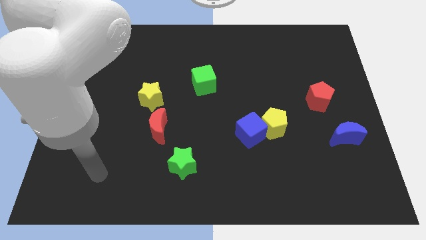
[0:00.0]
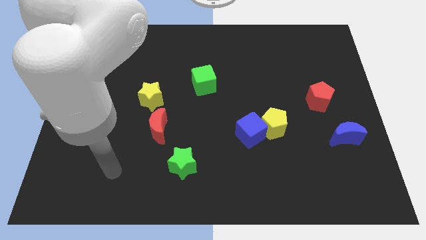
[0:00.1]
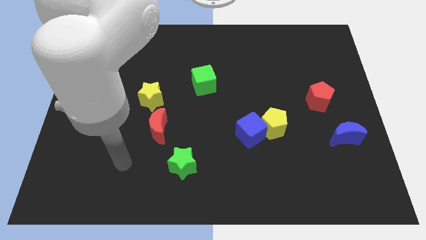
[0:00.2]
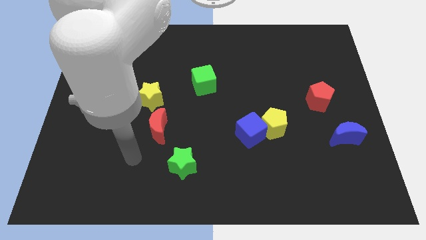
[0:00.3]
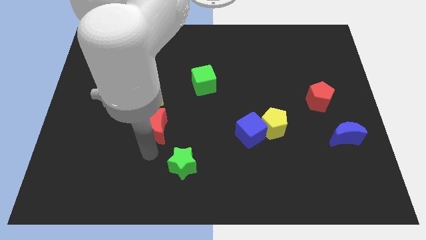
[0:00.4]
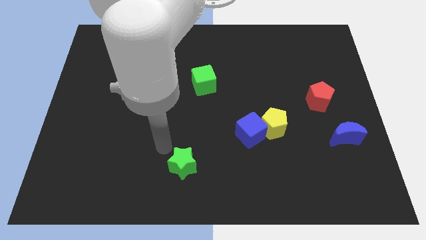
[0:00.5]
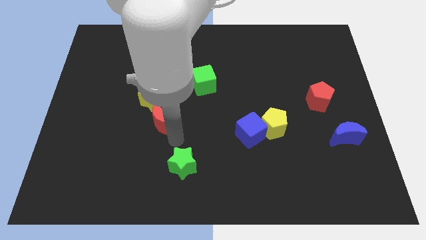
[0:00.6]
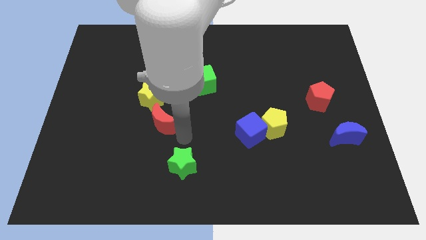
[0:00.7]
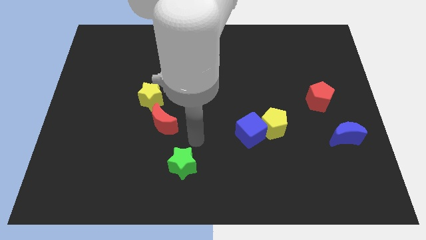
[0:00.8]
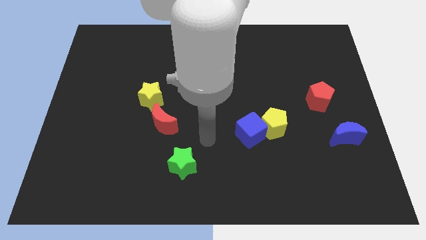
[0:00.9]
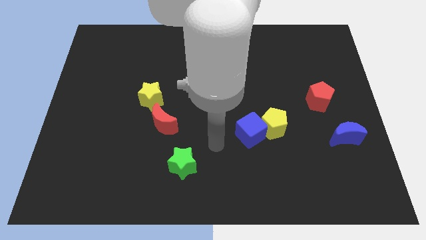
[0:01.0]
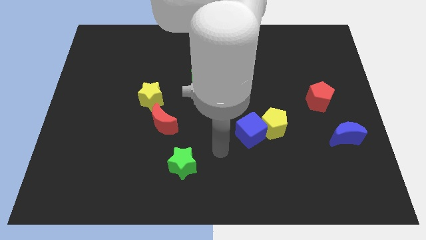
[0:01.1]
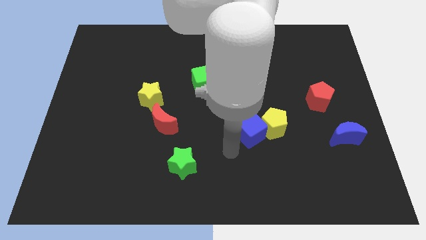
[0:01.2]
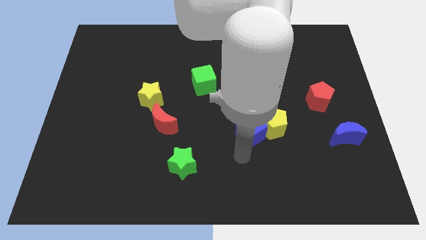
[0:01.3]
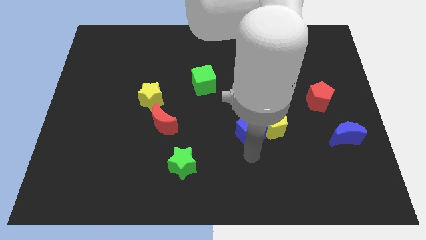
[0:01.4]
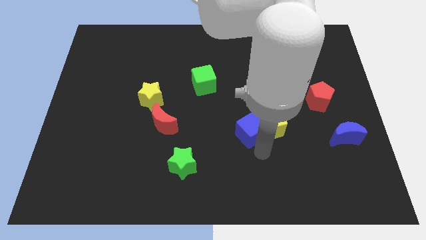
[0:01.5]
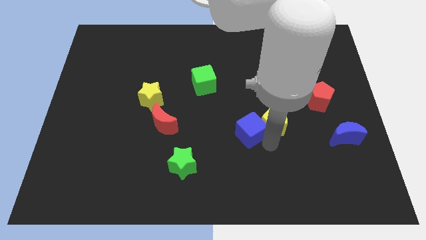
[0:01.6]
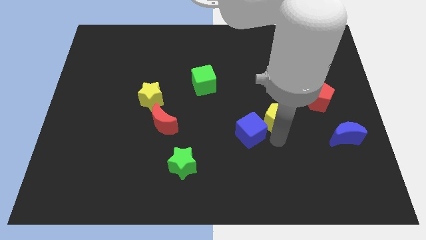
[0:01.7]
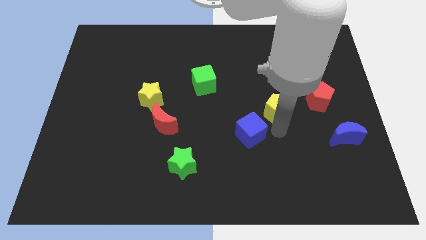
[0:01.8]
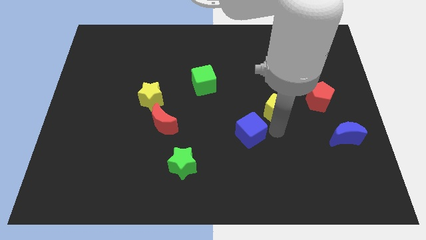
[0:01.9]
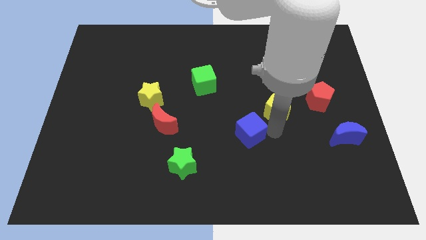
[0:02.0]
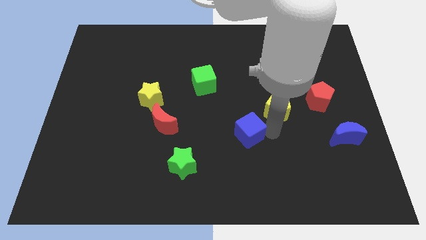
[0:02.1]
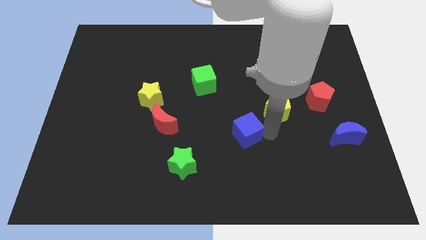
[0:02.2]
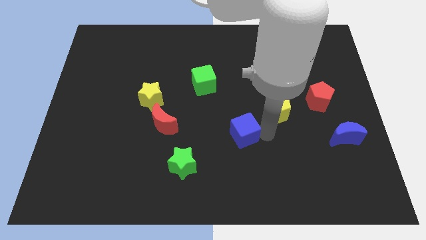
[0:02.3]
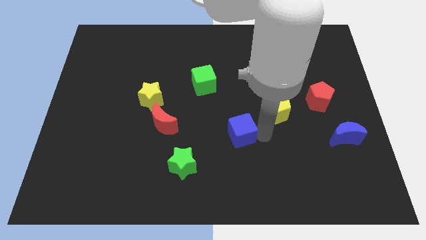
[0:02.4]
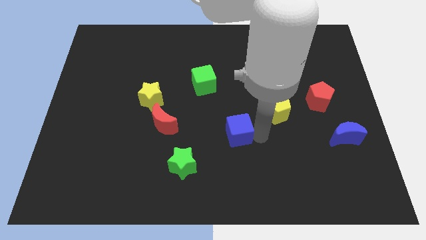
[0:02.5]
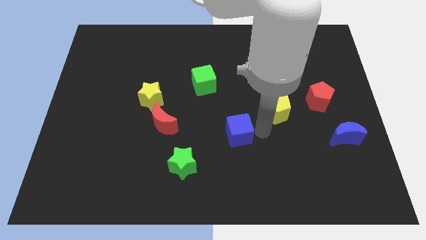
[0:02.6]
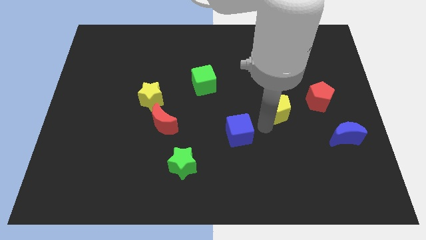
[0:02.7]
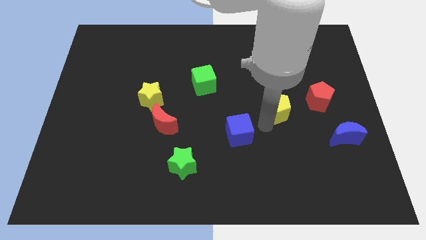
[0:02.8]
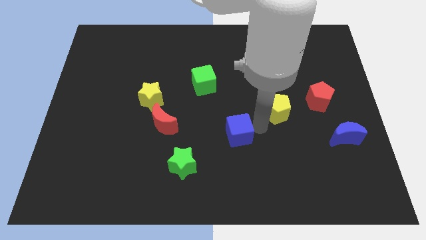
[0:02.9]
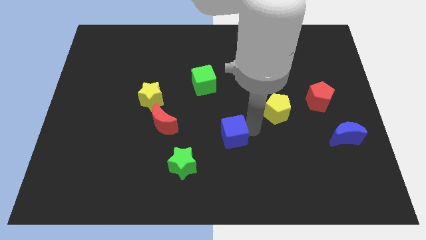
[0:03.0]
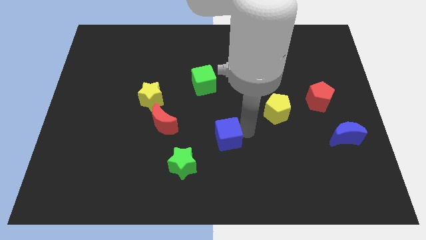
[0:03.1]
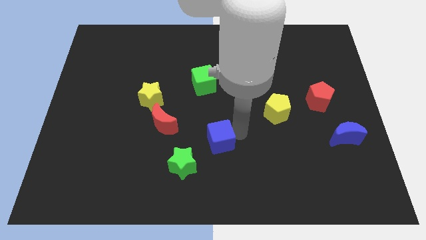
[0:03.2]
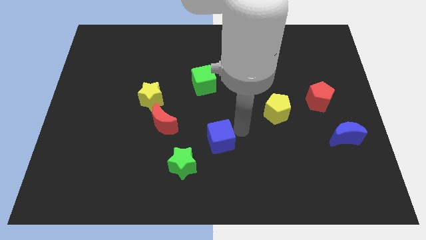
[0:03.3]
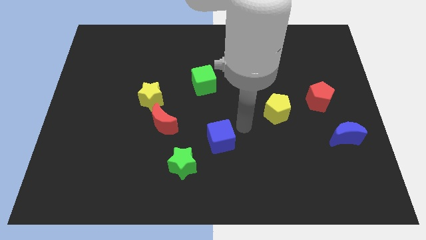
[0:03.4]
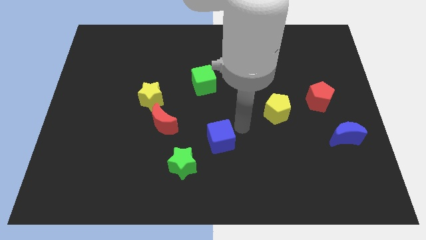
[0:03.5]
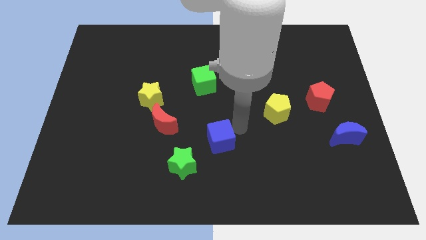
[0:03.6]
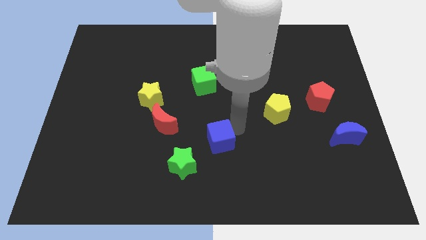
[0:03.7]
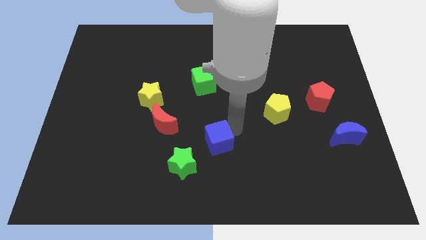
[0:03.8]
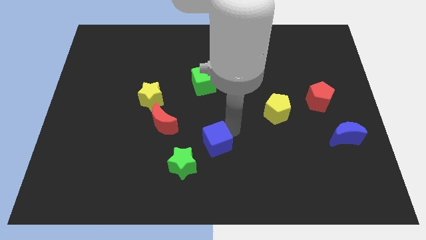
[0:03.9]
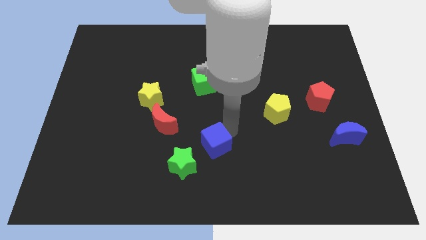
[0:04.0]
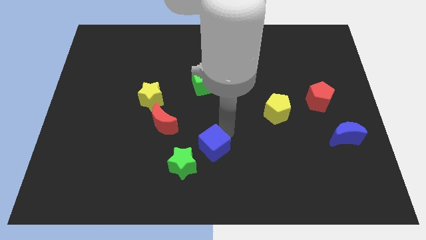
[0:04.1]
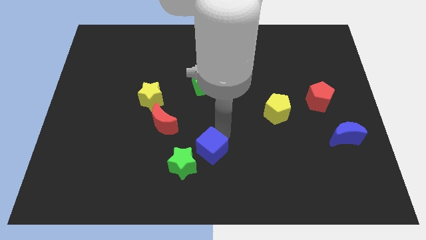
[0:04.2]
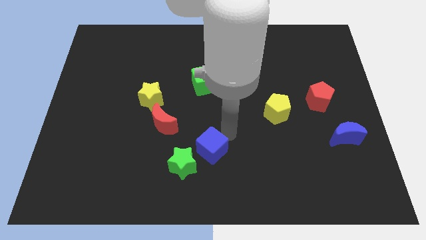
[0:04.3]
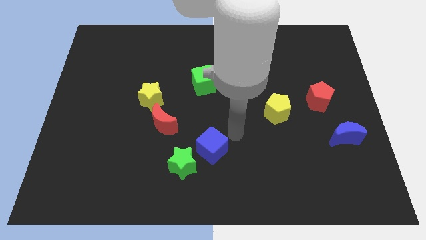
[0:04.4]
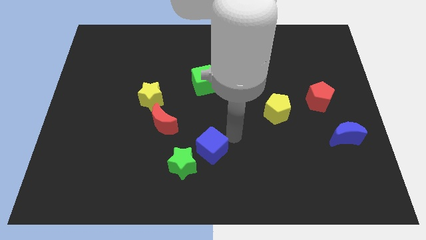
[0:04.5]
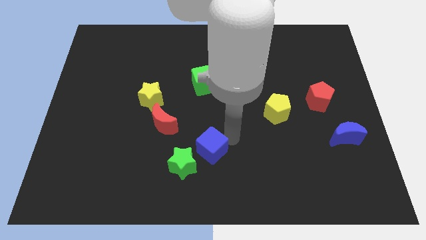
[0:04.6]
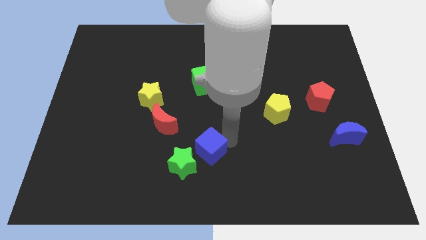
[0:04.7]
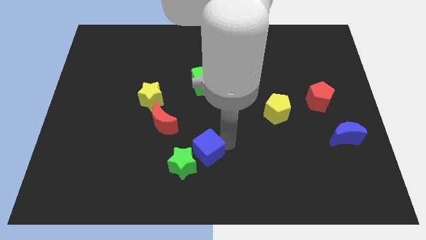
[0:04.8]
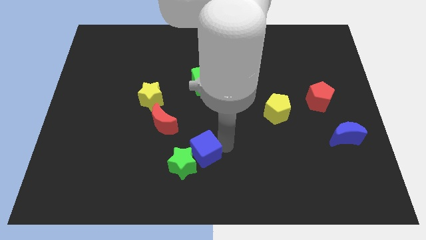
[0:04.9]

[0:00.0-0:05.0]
slide the blue cube close to the green star

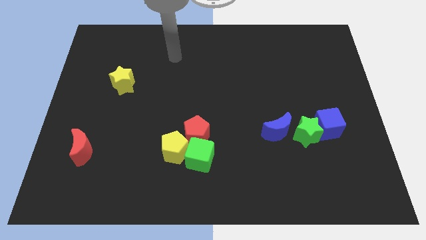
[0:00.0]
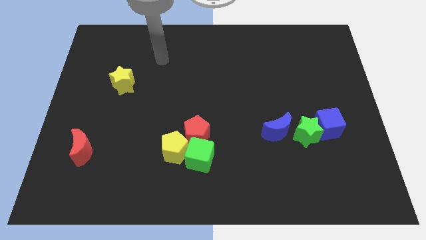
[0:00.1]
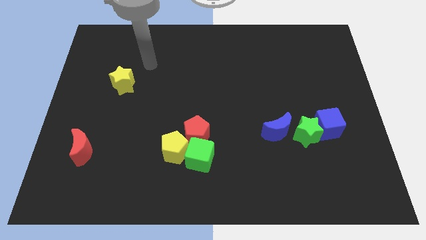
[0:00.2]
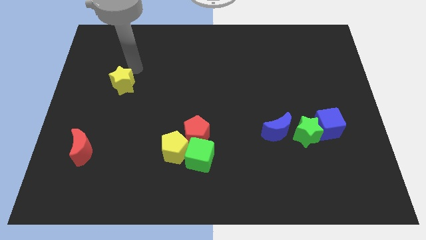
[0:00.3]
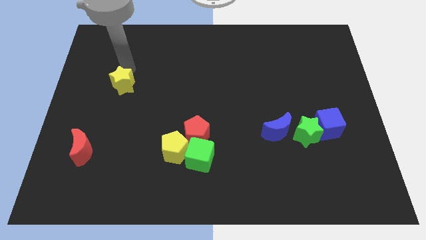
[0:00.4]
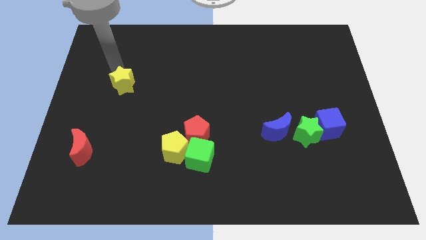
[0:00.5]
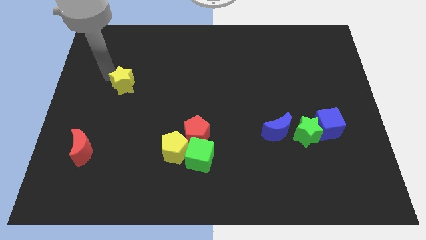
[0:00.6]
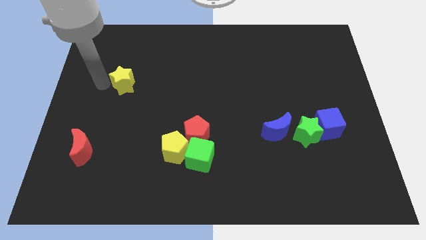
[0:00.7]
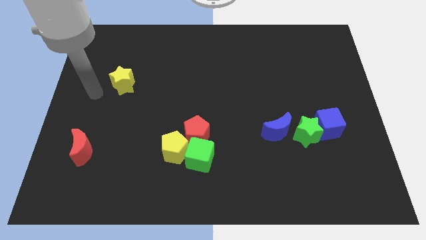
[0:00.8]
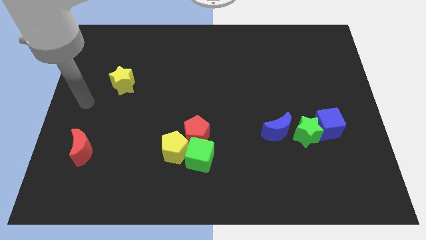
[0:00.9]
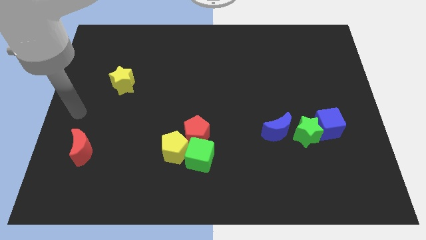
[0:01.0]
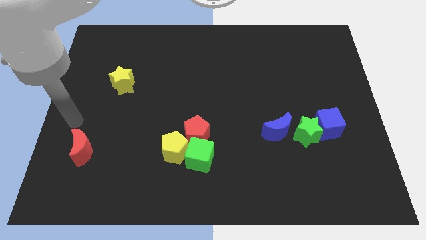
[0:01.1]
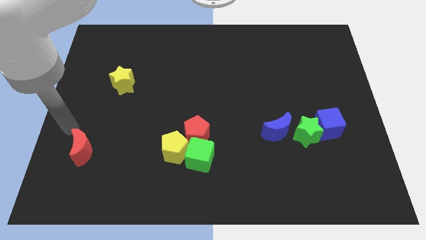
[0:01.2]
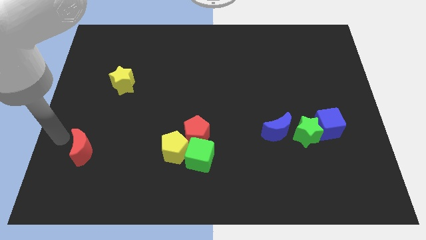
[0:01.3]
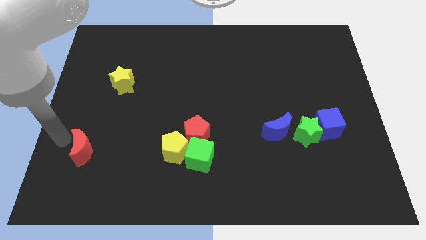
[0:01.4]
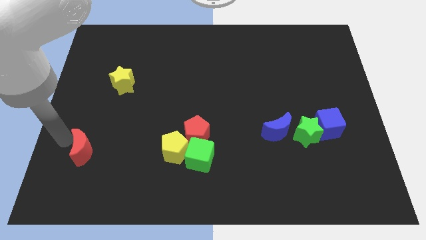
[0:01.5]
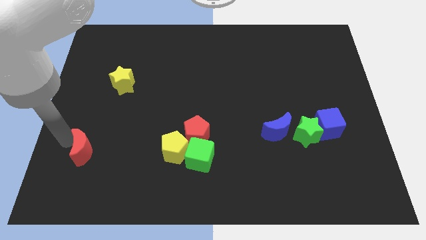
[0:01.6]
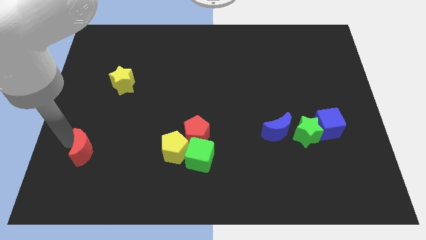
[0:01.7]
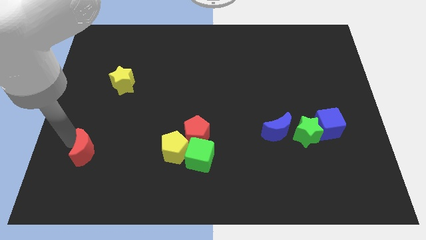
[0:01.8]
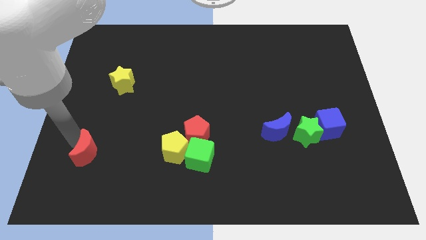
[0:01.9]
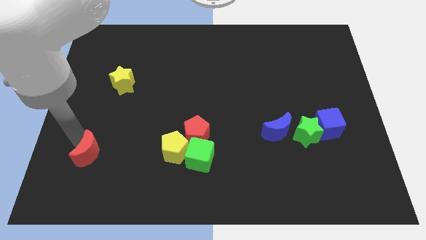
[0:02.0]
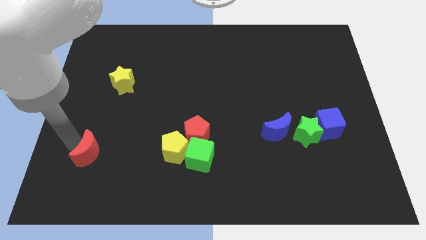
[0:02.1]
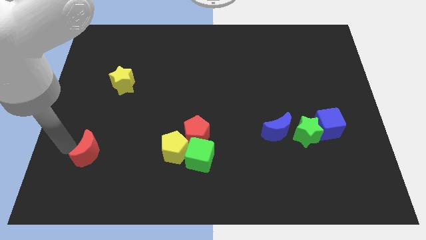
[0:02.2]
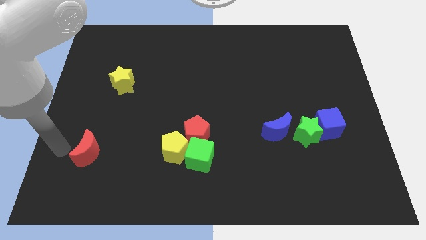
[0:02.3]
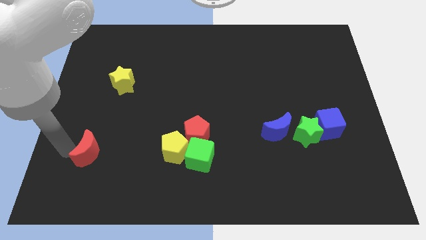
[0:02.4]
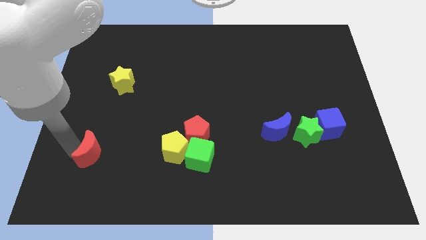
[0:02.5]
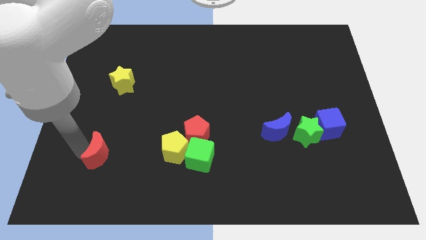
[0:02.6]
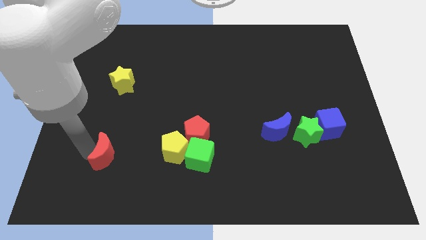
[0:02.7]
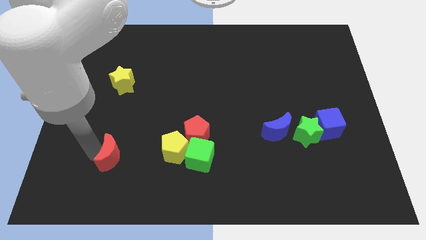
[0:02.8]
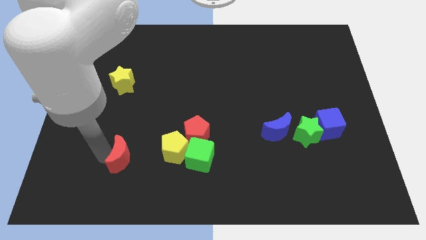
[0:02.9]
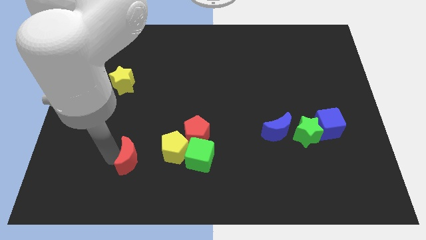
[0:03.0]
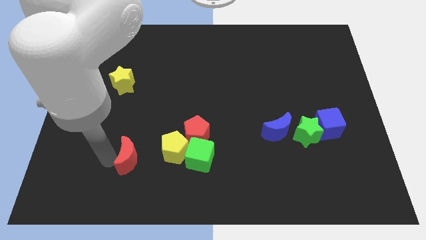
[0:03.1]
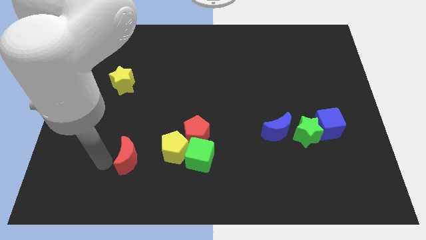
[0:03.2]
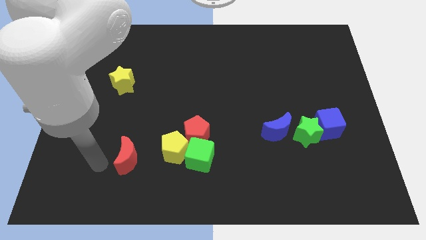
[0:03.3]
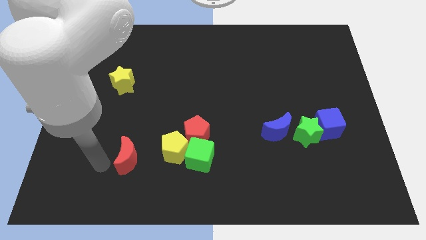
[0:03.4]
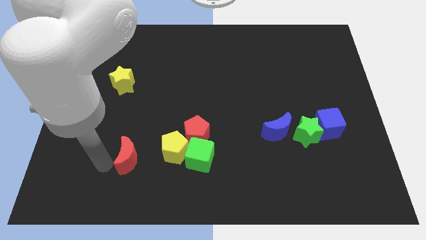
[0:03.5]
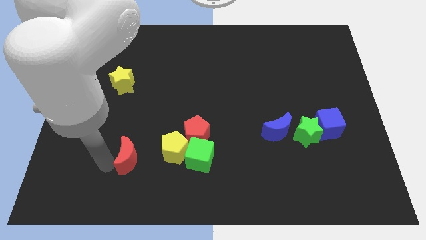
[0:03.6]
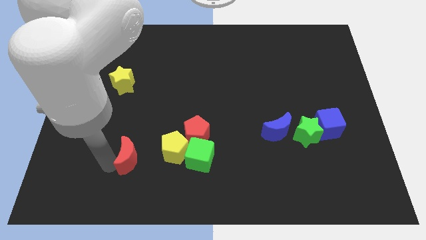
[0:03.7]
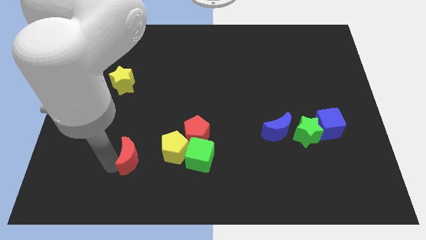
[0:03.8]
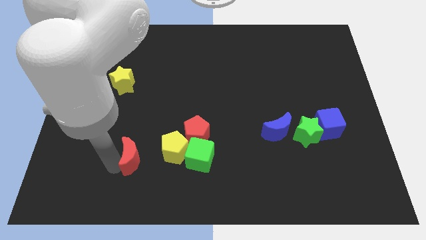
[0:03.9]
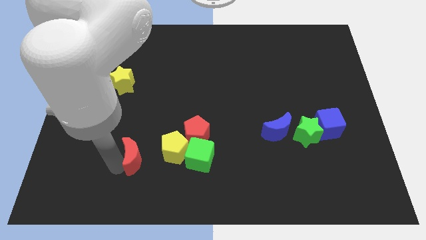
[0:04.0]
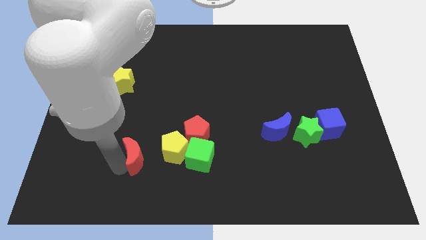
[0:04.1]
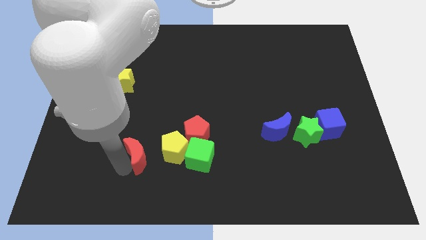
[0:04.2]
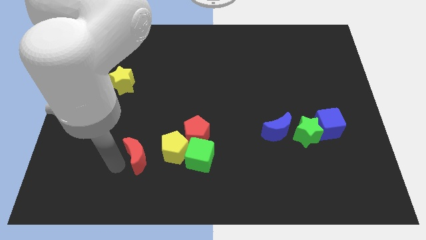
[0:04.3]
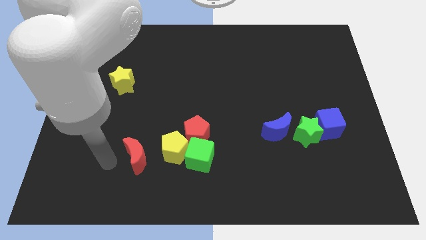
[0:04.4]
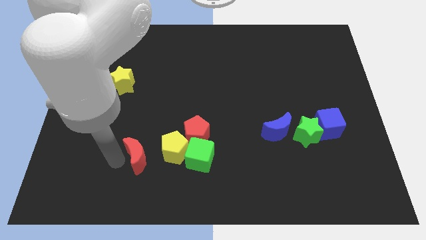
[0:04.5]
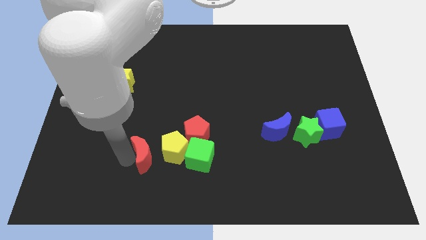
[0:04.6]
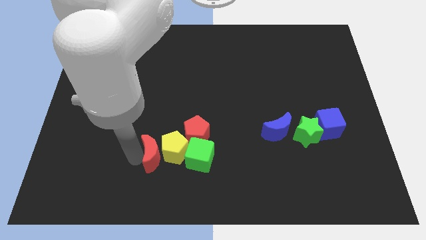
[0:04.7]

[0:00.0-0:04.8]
put the red moon towards the yellow pentagon
